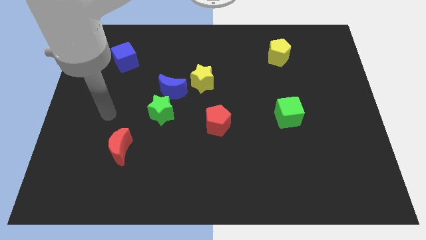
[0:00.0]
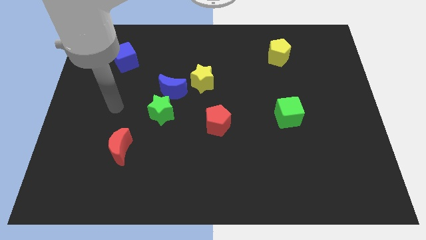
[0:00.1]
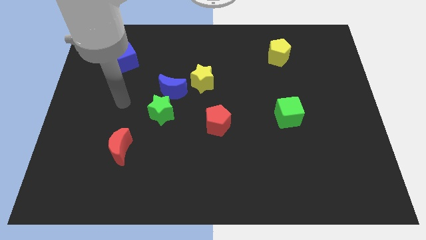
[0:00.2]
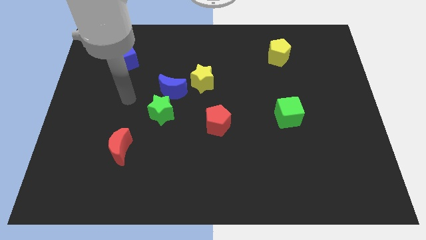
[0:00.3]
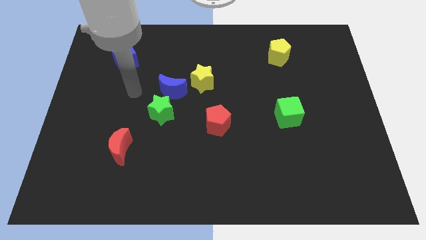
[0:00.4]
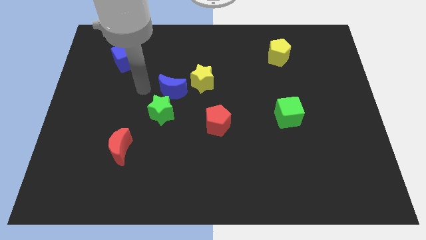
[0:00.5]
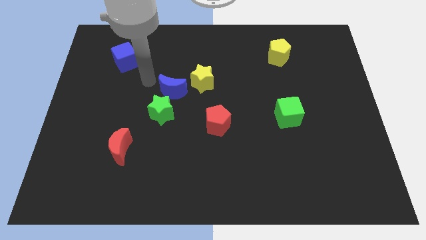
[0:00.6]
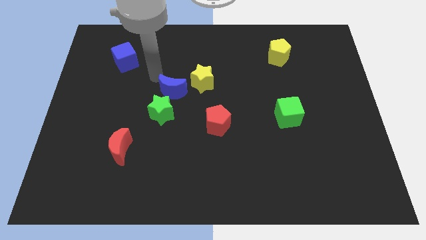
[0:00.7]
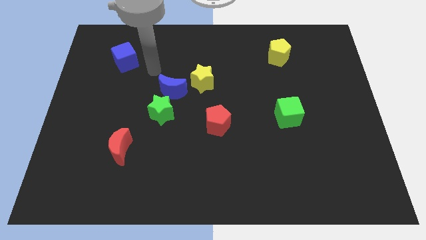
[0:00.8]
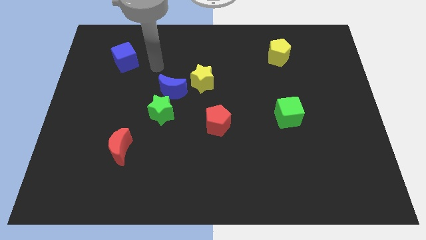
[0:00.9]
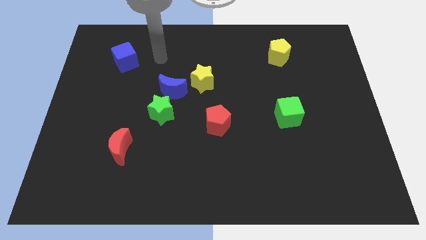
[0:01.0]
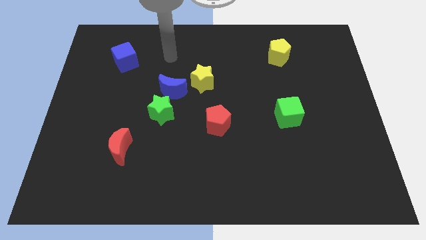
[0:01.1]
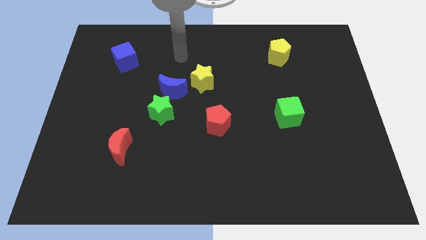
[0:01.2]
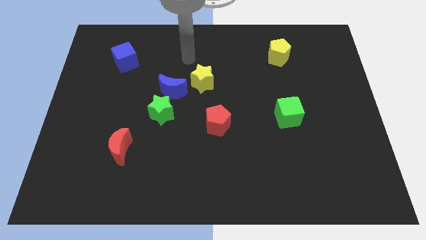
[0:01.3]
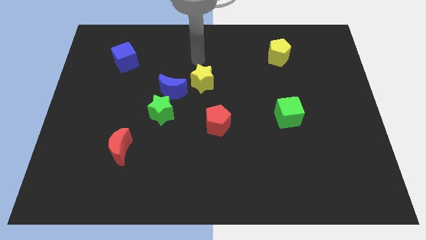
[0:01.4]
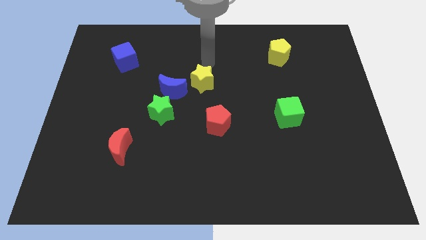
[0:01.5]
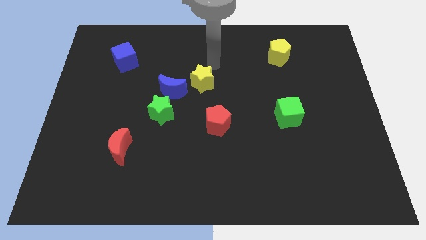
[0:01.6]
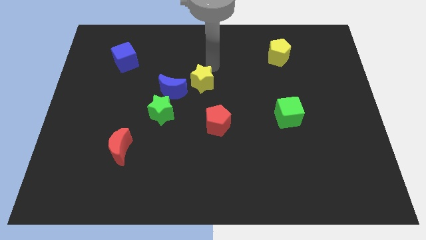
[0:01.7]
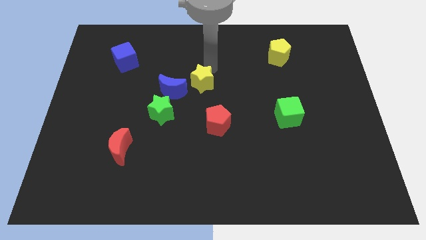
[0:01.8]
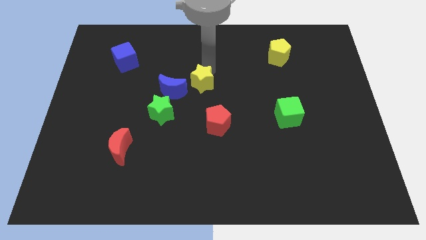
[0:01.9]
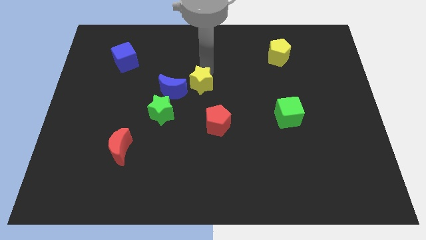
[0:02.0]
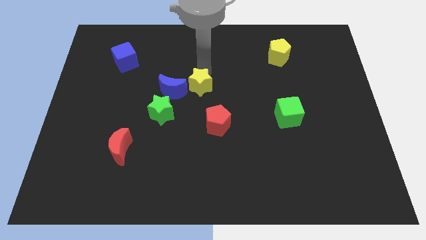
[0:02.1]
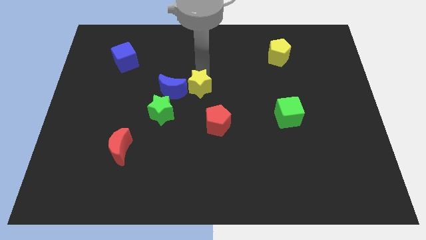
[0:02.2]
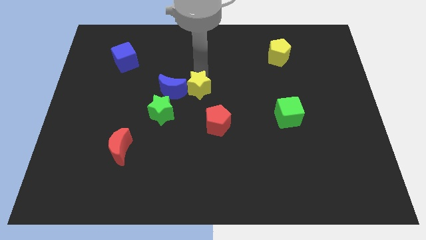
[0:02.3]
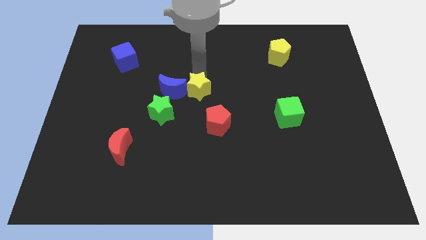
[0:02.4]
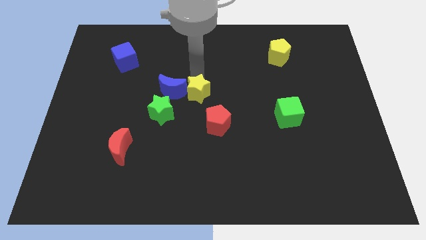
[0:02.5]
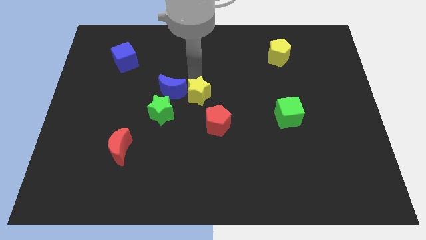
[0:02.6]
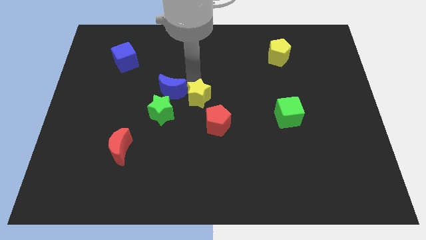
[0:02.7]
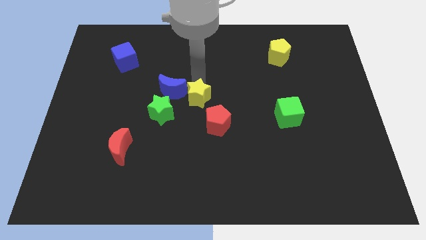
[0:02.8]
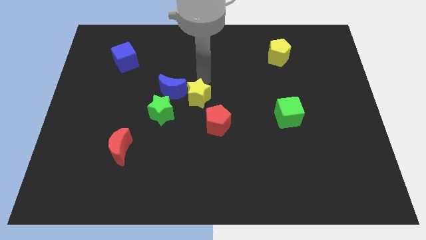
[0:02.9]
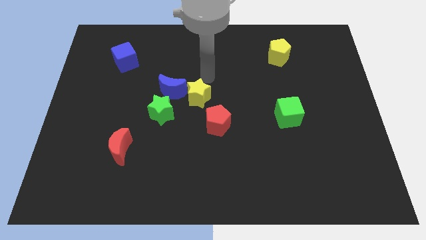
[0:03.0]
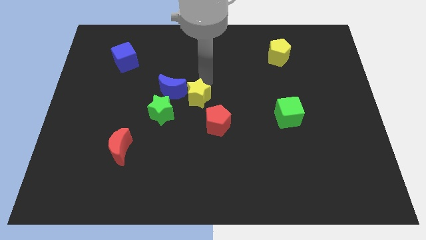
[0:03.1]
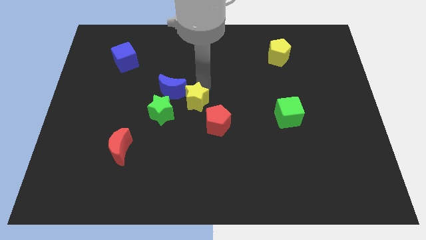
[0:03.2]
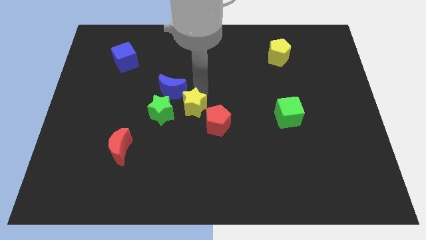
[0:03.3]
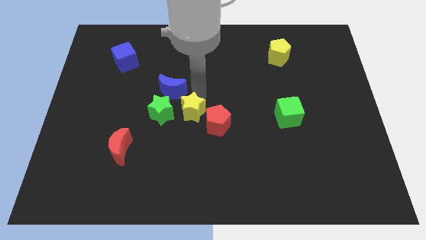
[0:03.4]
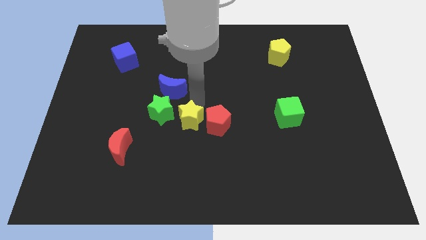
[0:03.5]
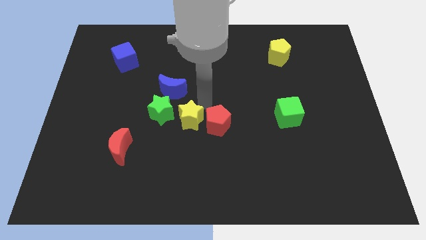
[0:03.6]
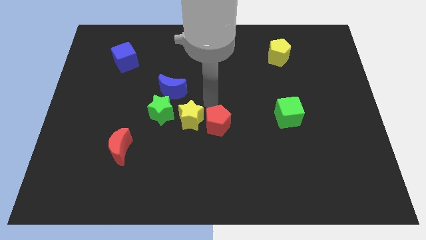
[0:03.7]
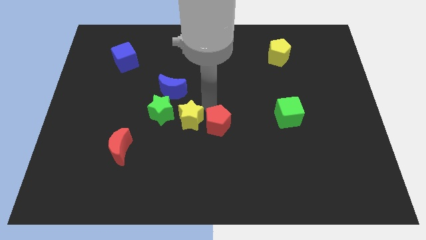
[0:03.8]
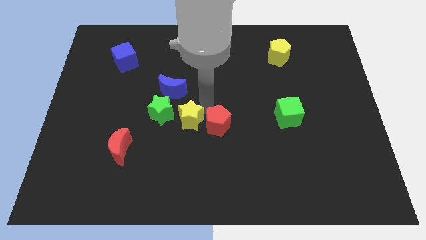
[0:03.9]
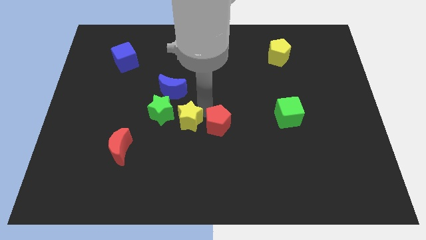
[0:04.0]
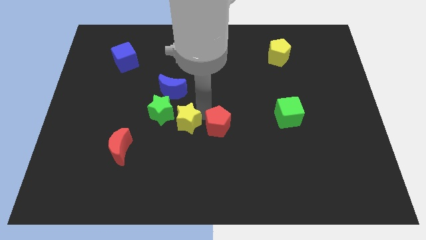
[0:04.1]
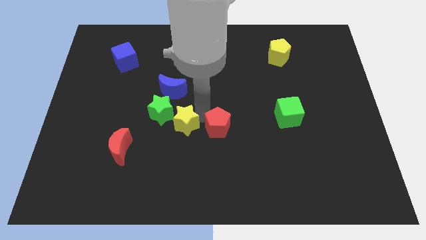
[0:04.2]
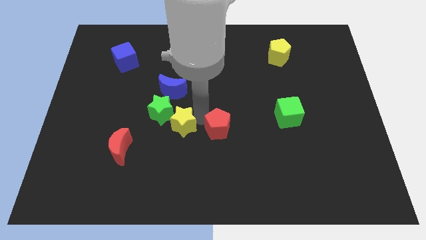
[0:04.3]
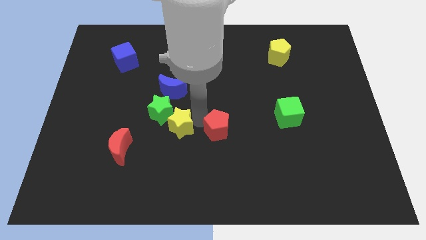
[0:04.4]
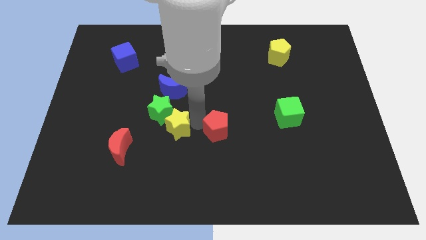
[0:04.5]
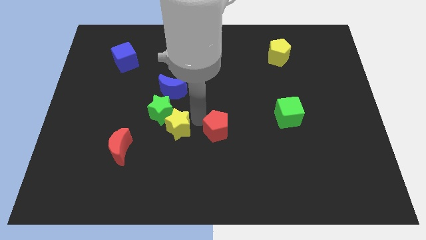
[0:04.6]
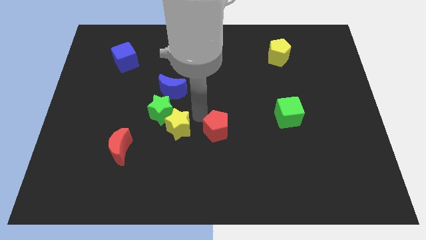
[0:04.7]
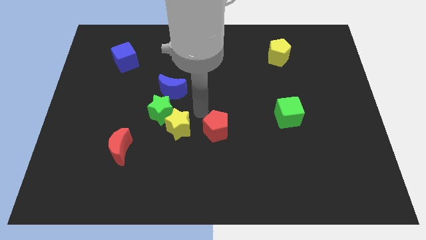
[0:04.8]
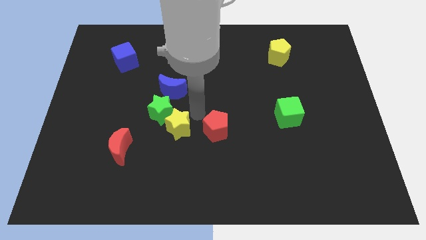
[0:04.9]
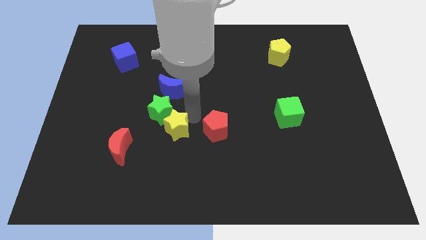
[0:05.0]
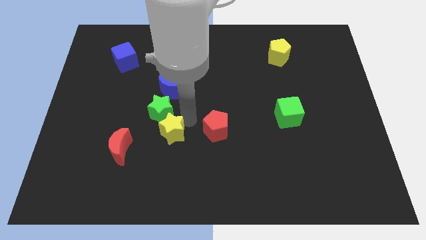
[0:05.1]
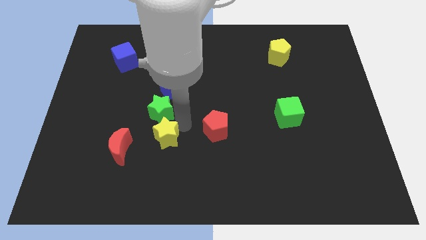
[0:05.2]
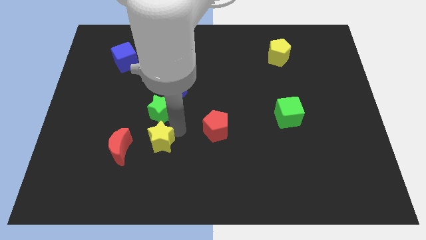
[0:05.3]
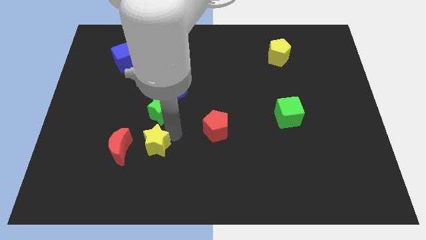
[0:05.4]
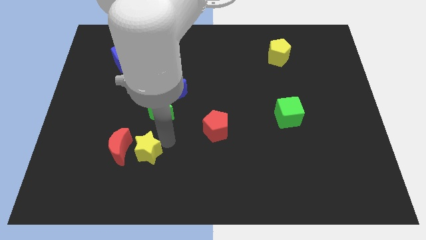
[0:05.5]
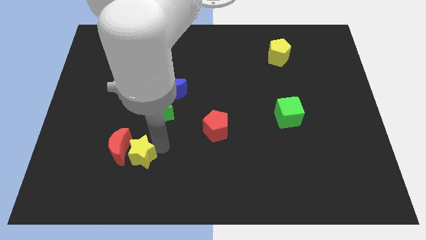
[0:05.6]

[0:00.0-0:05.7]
move the yellow star towards the red moon

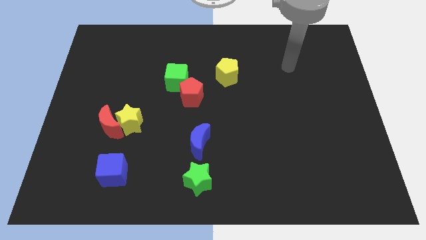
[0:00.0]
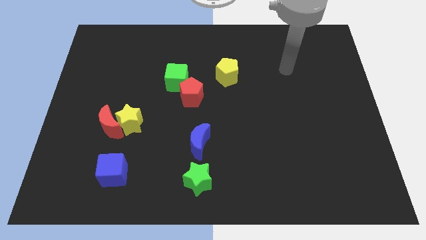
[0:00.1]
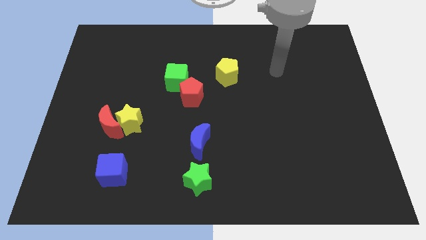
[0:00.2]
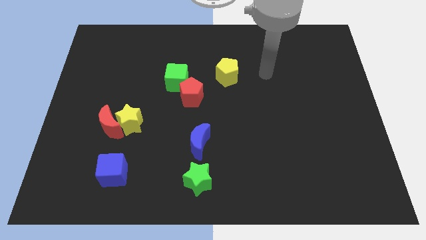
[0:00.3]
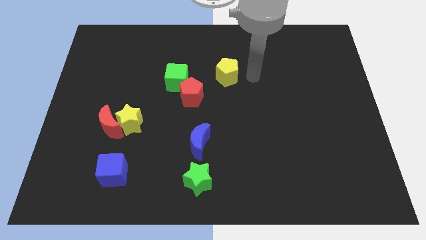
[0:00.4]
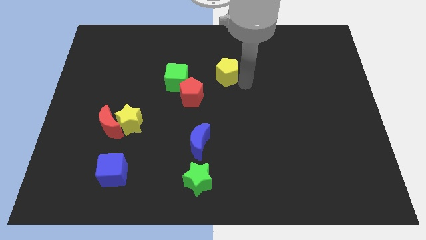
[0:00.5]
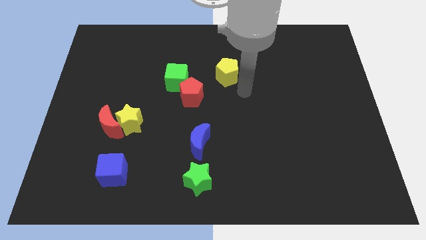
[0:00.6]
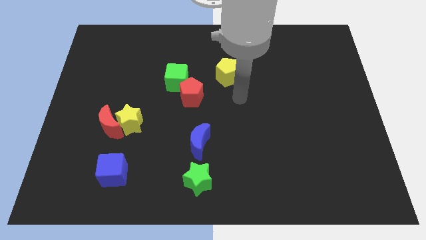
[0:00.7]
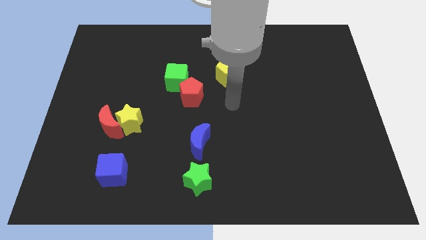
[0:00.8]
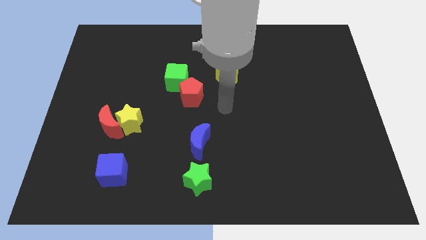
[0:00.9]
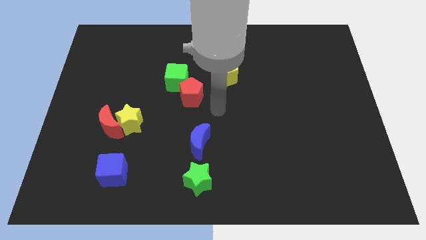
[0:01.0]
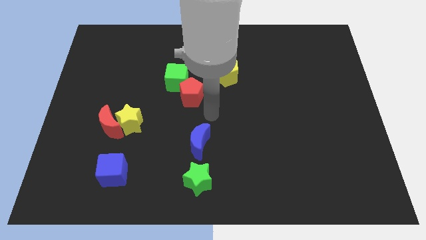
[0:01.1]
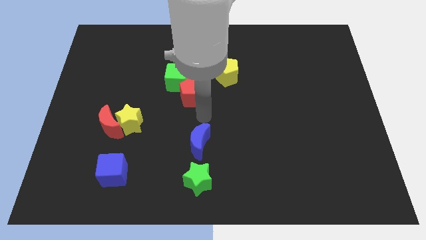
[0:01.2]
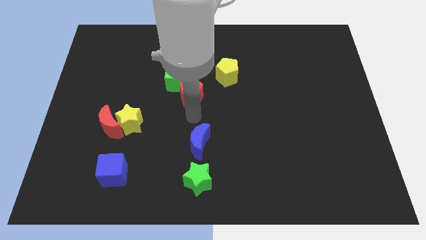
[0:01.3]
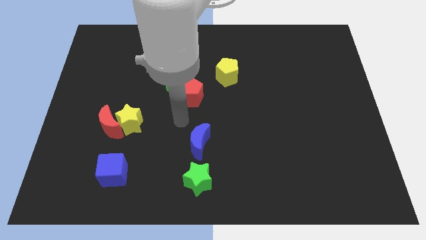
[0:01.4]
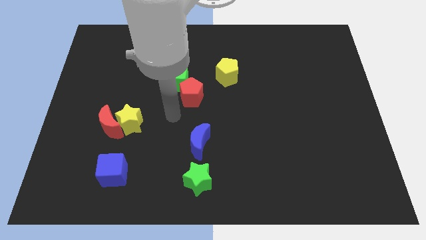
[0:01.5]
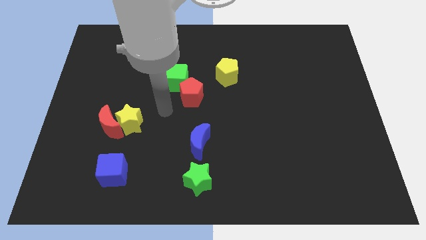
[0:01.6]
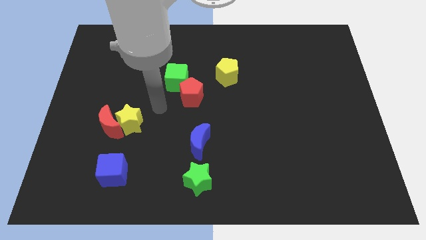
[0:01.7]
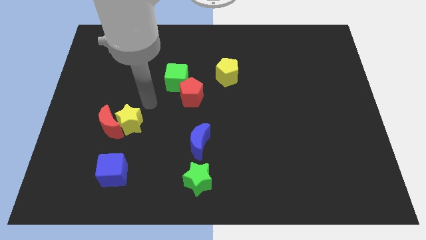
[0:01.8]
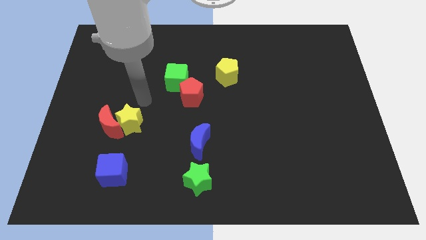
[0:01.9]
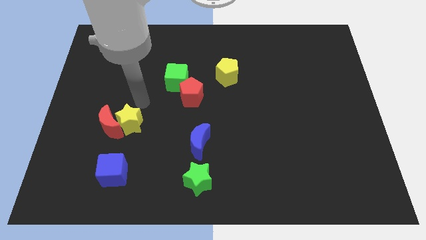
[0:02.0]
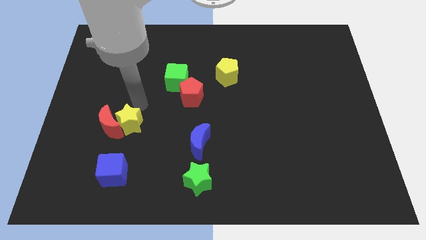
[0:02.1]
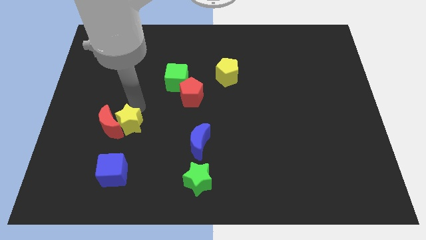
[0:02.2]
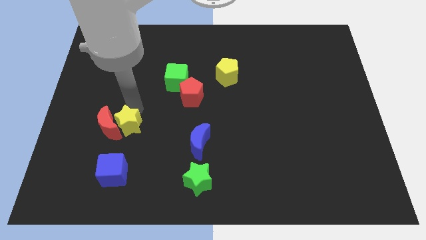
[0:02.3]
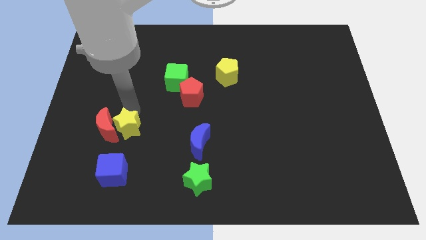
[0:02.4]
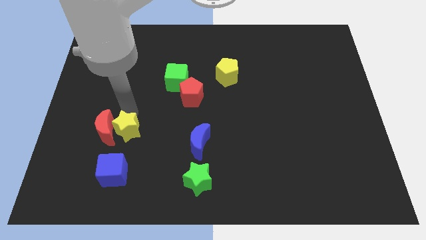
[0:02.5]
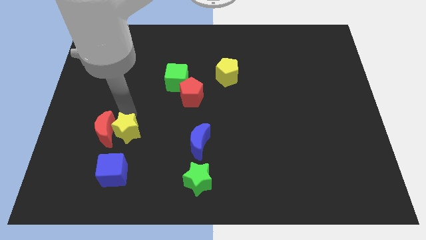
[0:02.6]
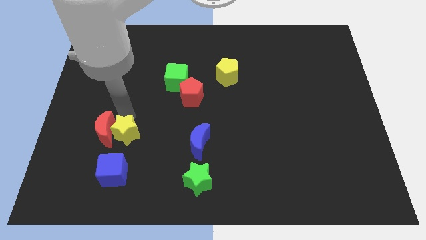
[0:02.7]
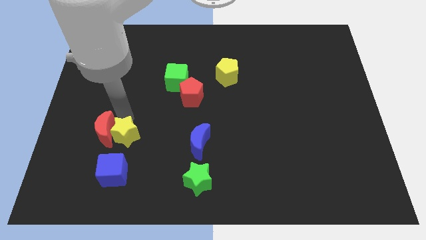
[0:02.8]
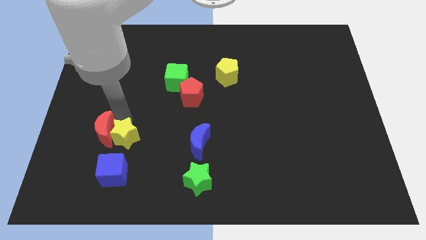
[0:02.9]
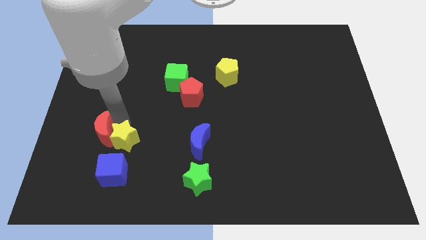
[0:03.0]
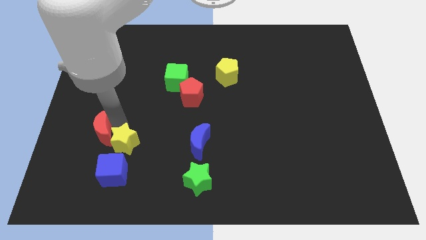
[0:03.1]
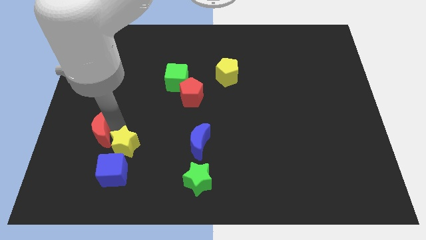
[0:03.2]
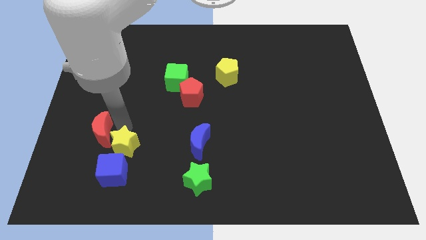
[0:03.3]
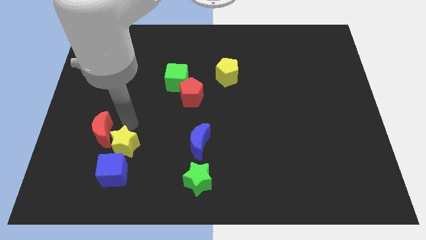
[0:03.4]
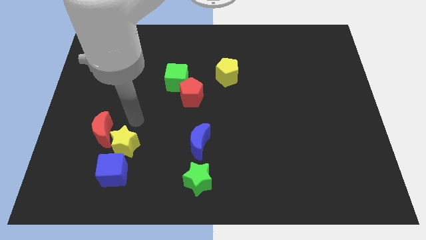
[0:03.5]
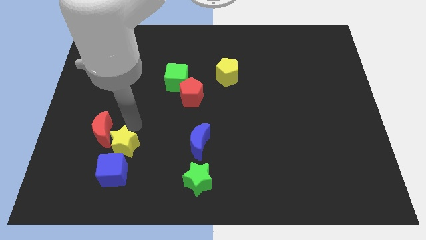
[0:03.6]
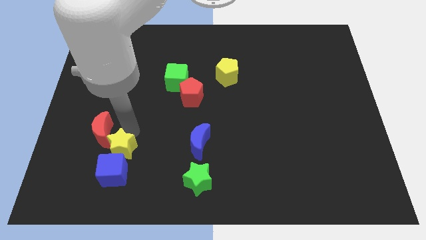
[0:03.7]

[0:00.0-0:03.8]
put the yellow star next to the blue cube
